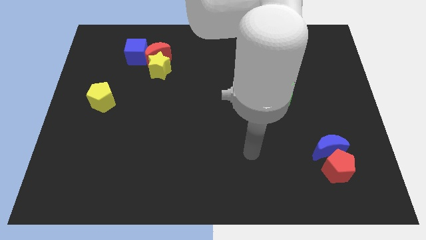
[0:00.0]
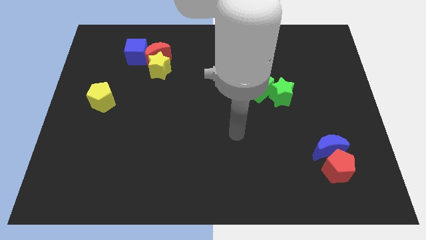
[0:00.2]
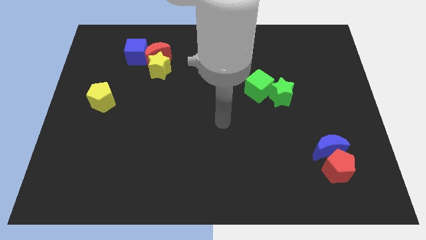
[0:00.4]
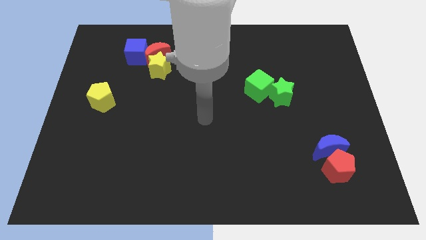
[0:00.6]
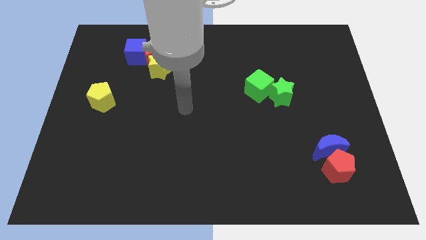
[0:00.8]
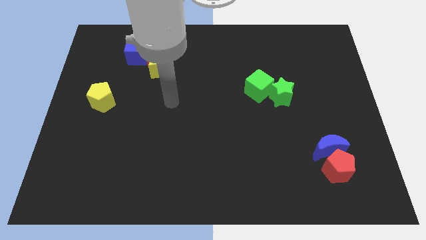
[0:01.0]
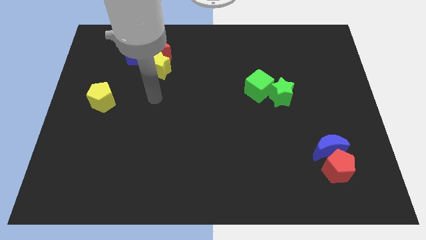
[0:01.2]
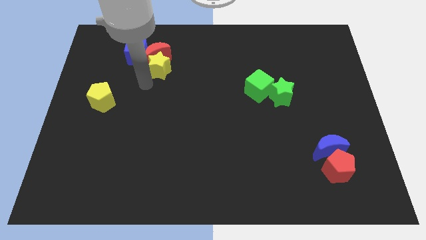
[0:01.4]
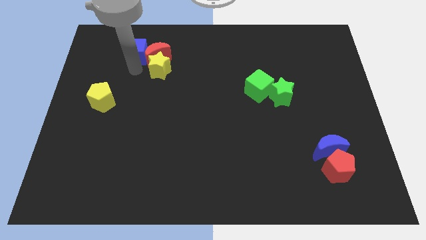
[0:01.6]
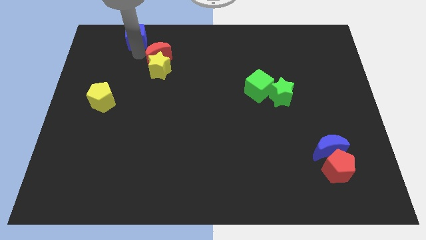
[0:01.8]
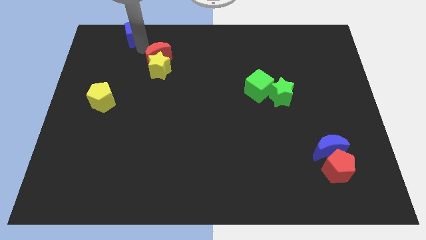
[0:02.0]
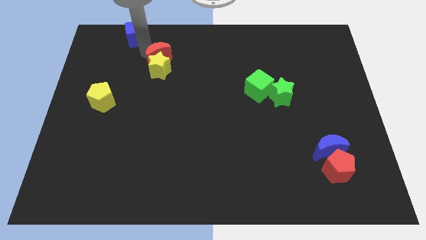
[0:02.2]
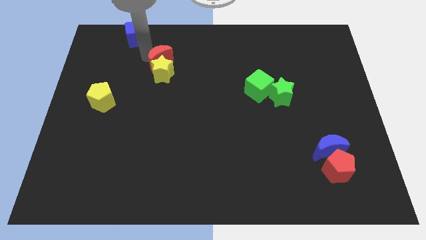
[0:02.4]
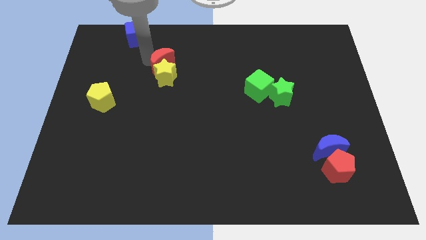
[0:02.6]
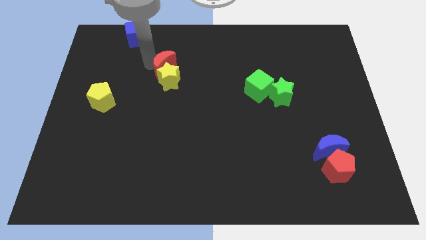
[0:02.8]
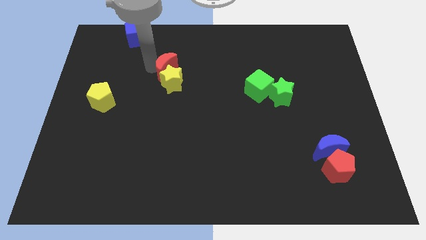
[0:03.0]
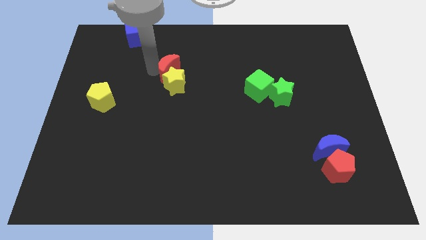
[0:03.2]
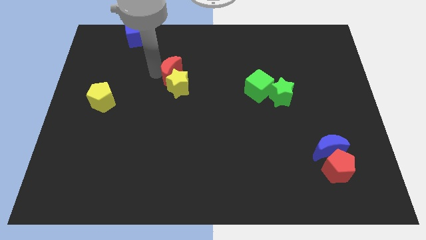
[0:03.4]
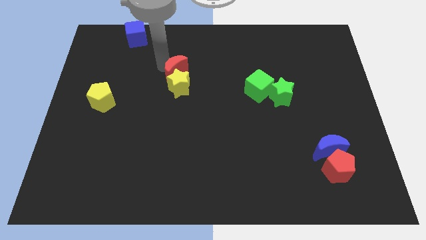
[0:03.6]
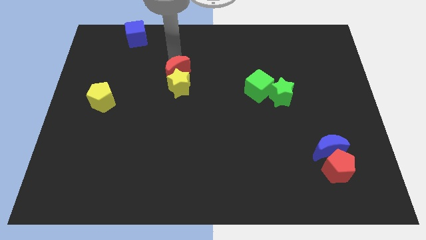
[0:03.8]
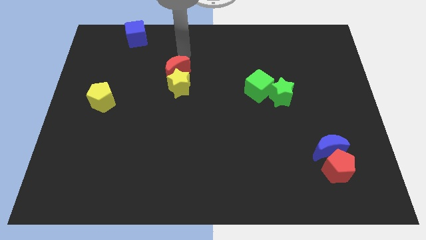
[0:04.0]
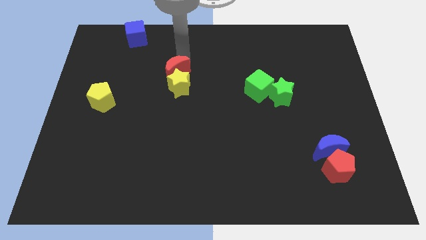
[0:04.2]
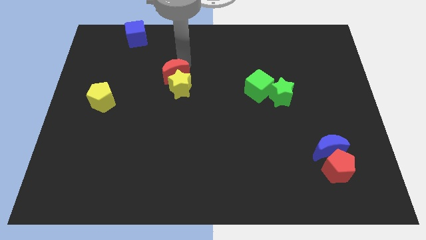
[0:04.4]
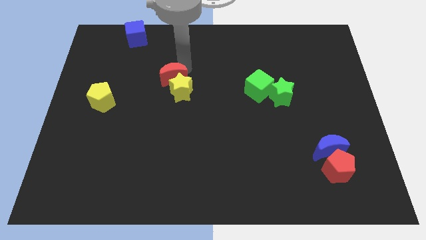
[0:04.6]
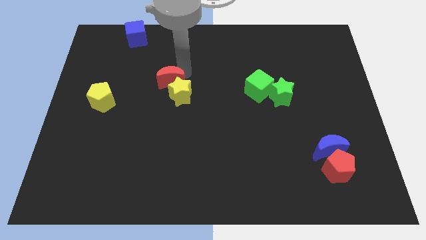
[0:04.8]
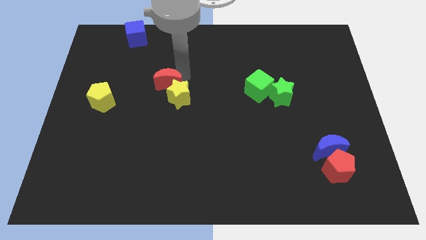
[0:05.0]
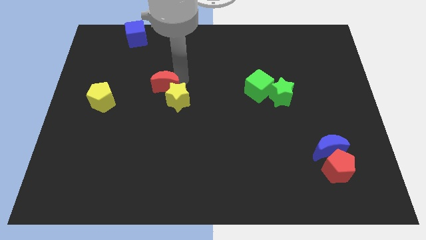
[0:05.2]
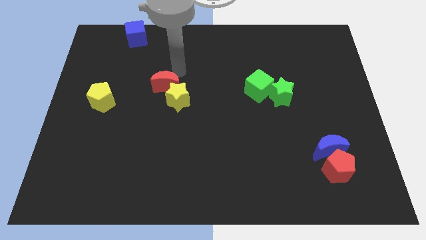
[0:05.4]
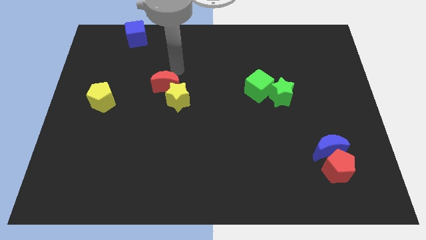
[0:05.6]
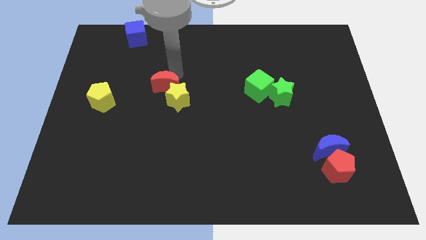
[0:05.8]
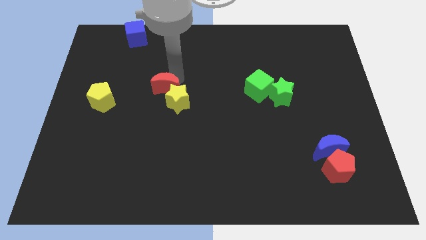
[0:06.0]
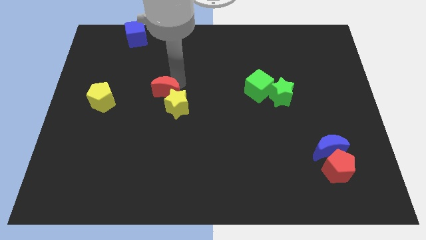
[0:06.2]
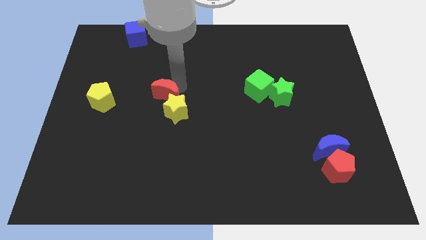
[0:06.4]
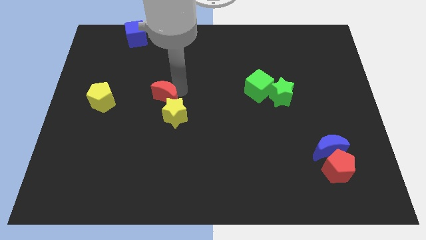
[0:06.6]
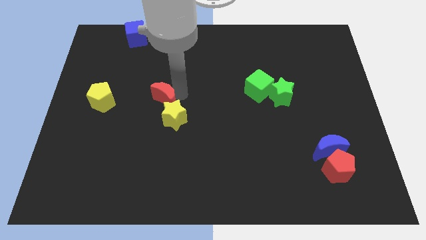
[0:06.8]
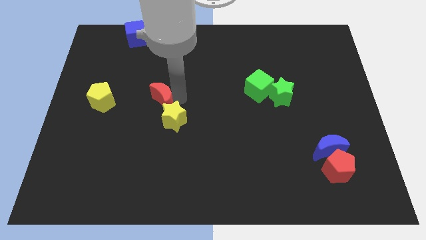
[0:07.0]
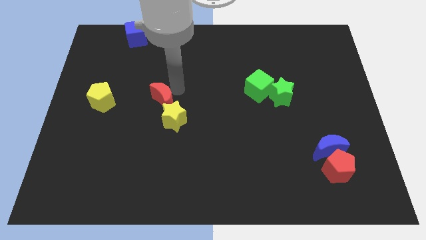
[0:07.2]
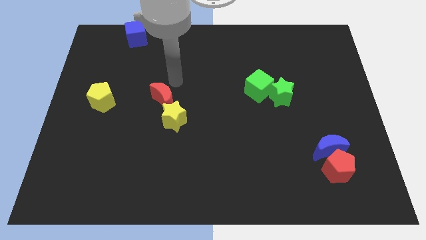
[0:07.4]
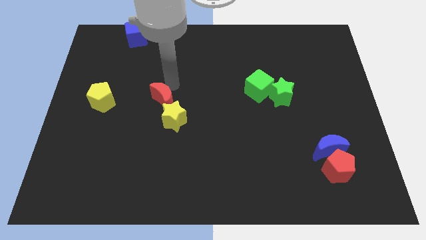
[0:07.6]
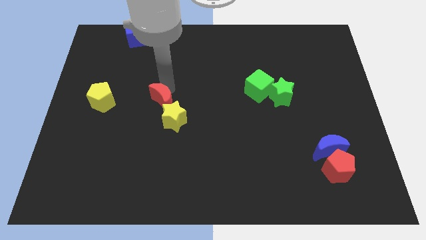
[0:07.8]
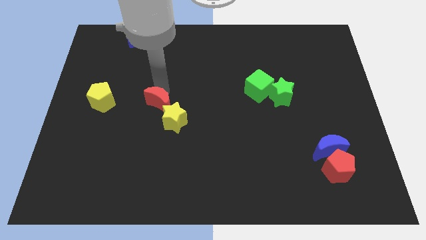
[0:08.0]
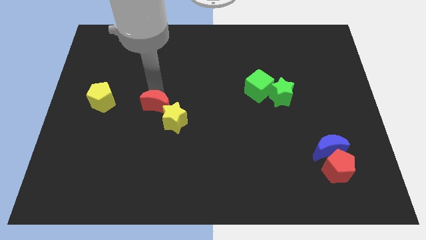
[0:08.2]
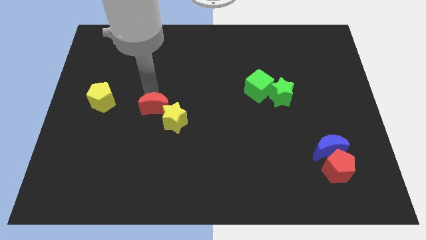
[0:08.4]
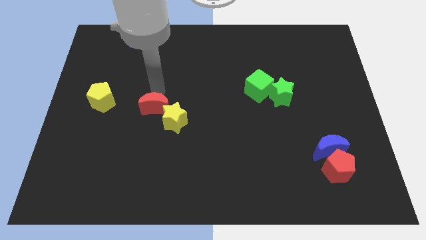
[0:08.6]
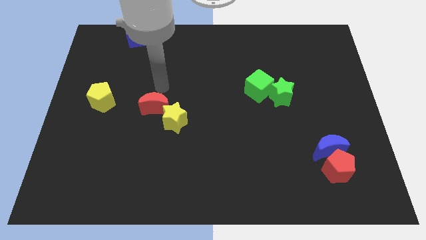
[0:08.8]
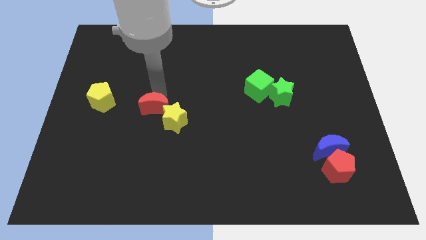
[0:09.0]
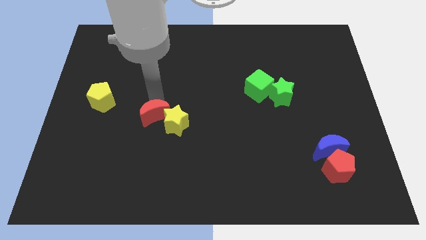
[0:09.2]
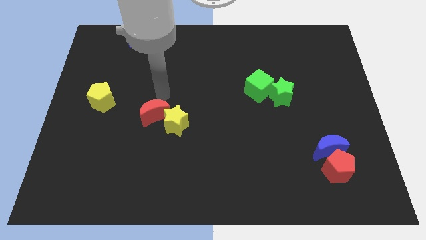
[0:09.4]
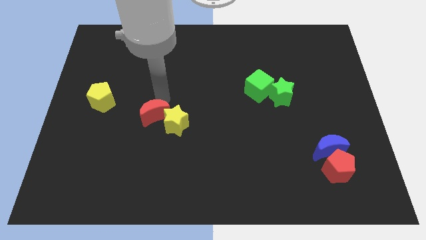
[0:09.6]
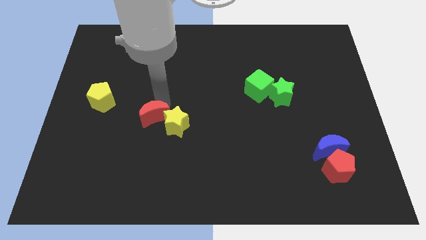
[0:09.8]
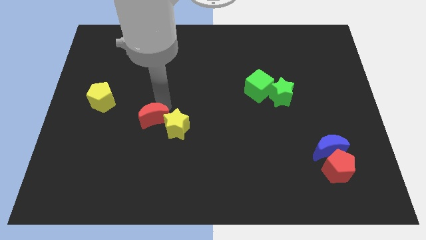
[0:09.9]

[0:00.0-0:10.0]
slide the red moon down

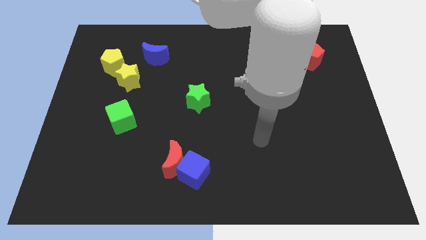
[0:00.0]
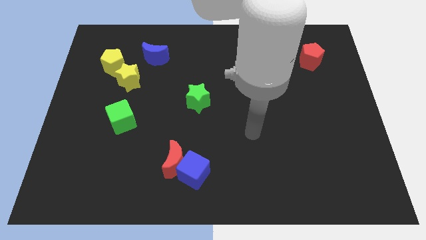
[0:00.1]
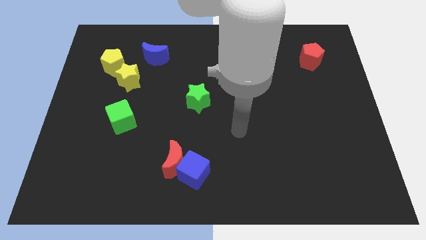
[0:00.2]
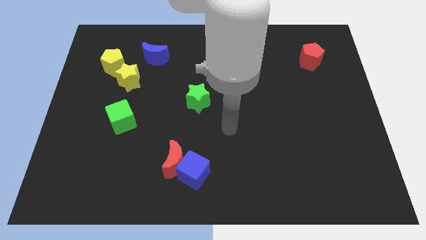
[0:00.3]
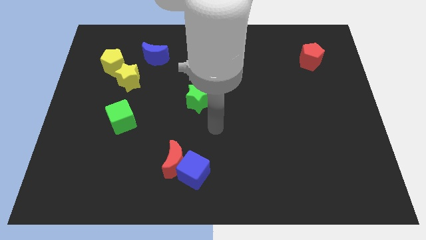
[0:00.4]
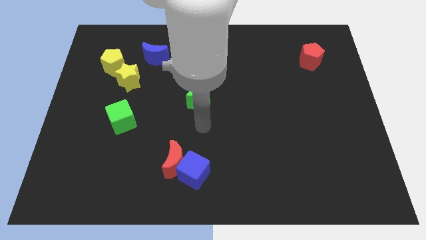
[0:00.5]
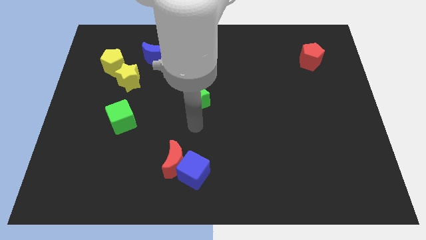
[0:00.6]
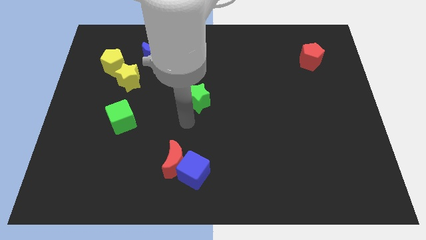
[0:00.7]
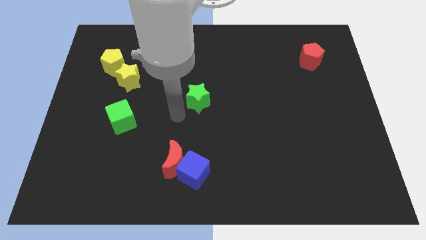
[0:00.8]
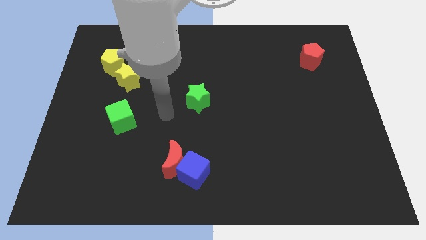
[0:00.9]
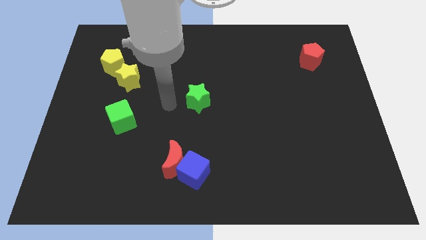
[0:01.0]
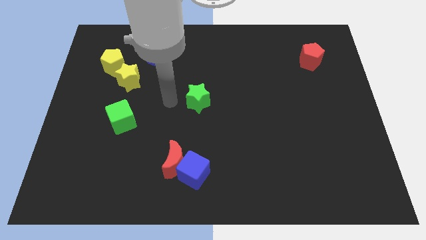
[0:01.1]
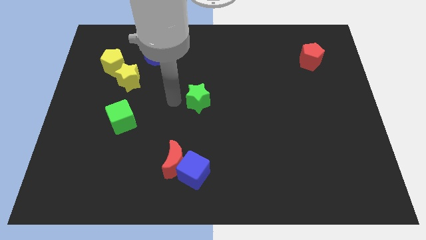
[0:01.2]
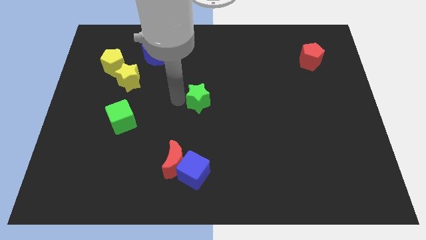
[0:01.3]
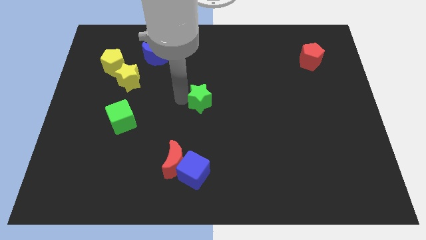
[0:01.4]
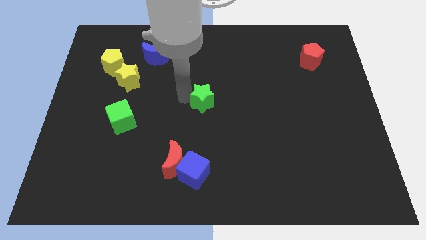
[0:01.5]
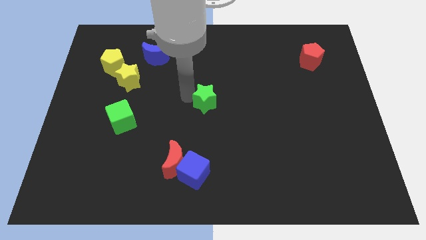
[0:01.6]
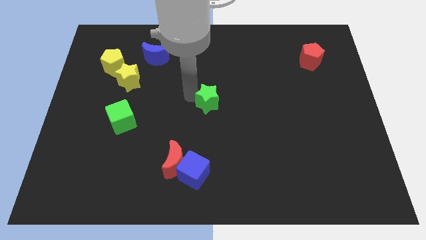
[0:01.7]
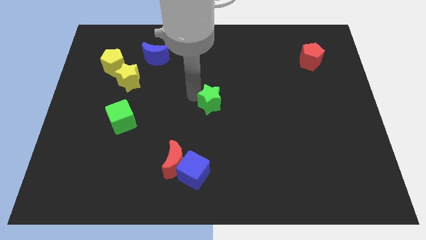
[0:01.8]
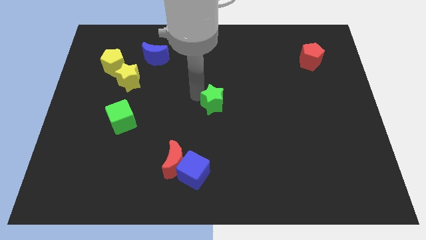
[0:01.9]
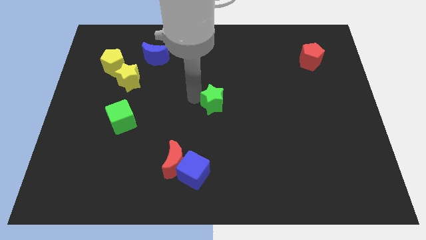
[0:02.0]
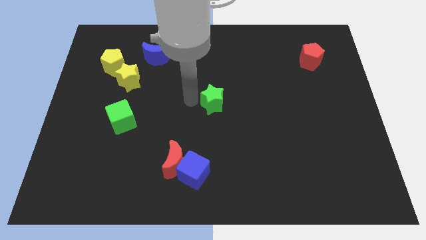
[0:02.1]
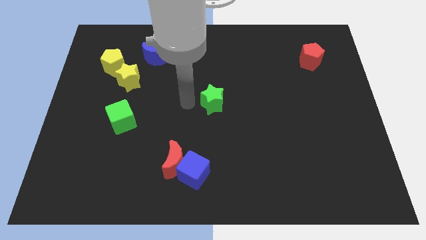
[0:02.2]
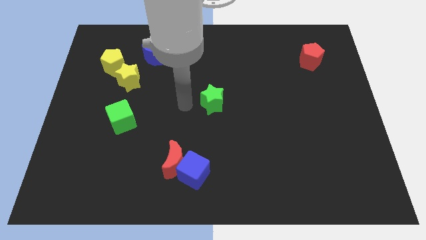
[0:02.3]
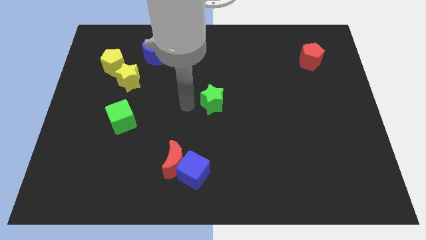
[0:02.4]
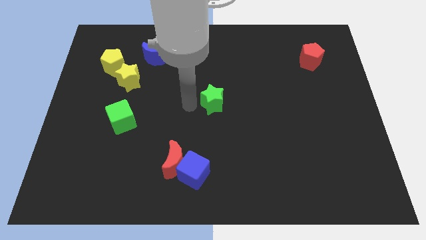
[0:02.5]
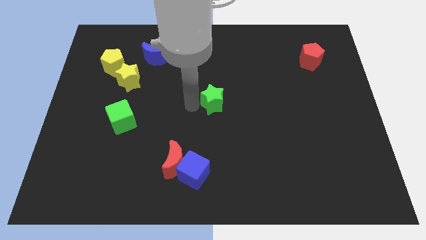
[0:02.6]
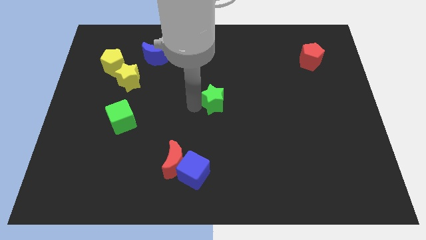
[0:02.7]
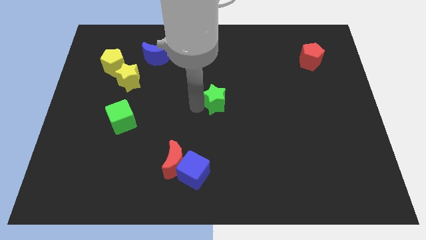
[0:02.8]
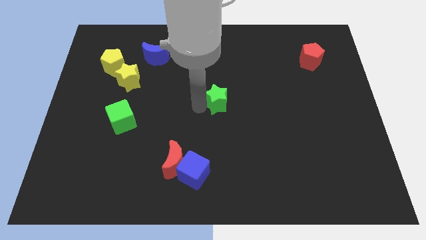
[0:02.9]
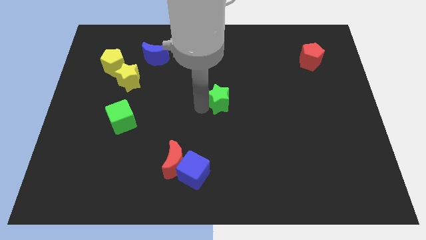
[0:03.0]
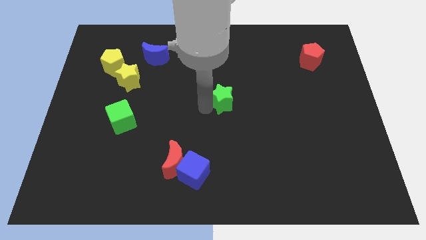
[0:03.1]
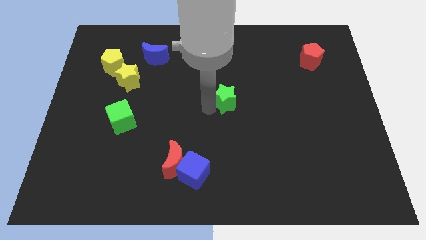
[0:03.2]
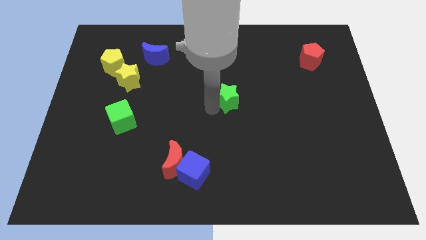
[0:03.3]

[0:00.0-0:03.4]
slightly move the green star right
